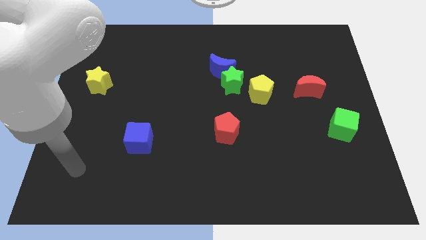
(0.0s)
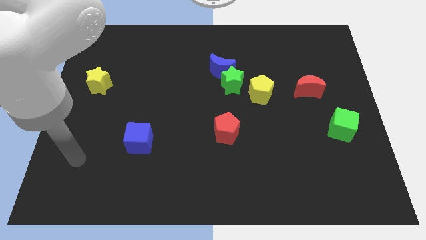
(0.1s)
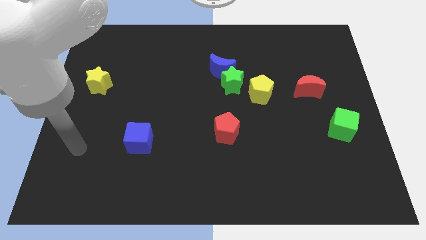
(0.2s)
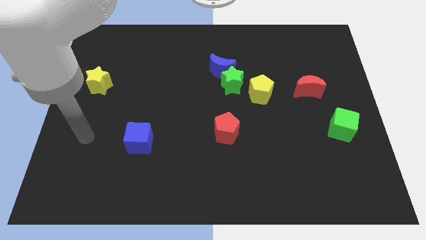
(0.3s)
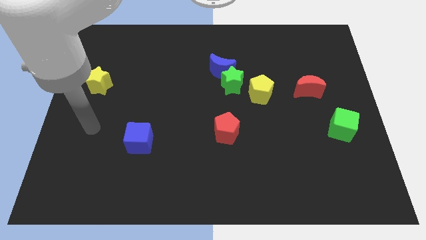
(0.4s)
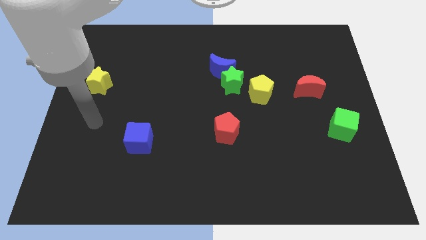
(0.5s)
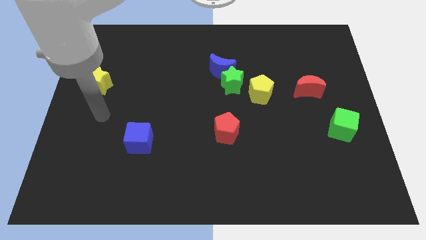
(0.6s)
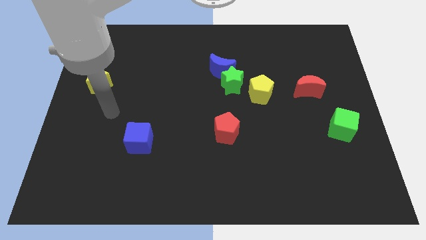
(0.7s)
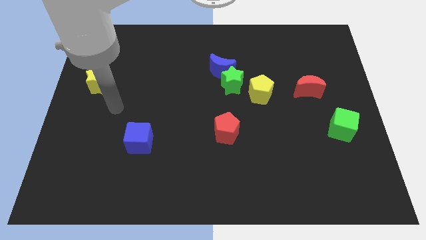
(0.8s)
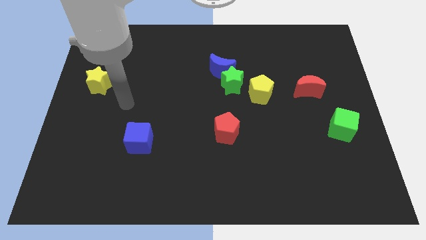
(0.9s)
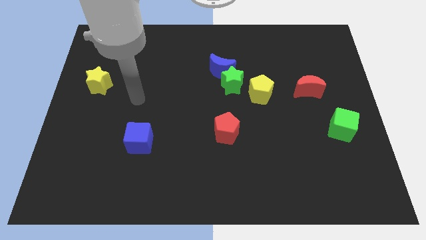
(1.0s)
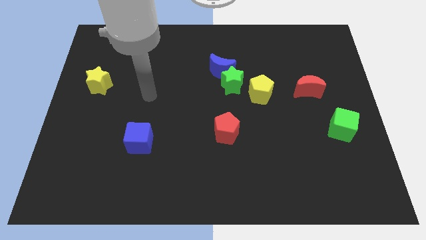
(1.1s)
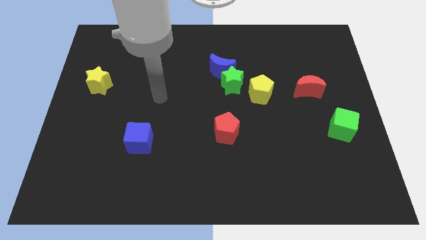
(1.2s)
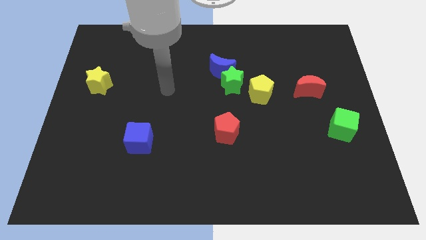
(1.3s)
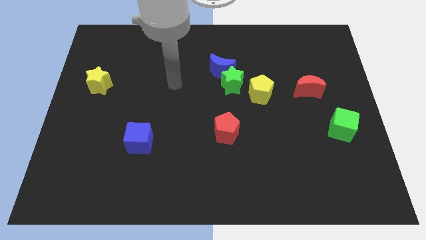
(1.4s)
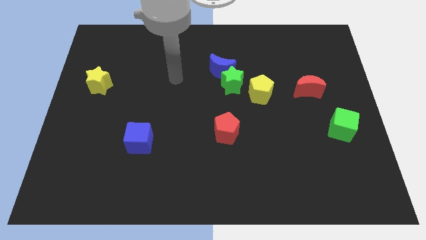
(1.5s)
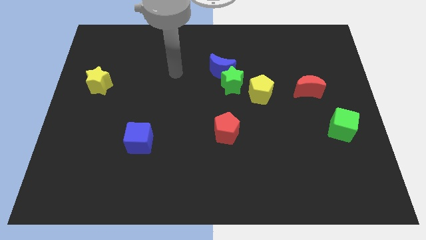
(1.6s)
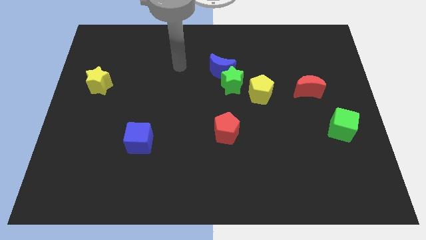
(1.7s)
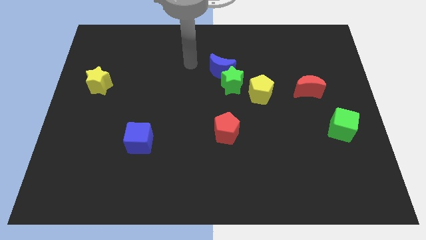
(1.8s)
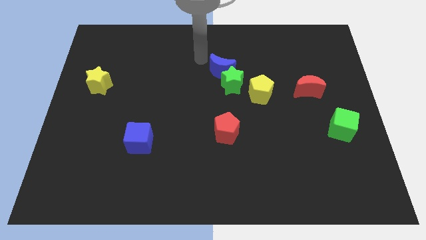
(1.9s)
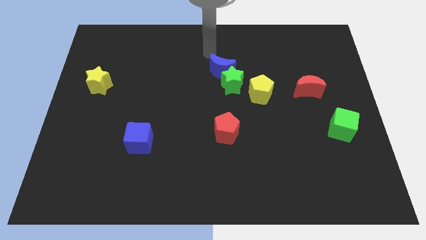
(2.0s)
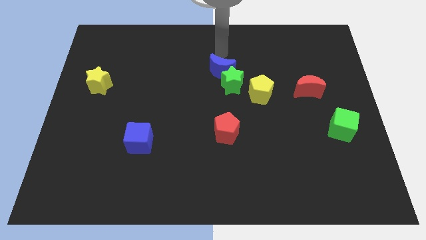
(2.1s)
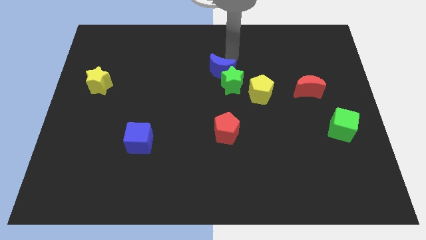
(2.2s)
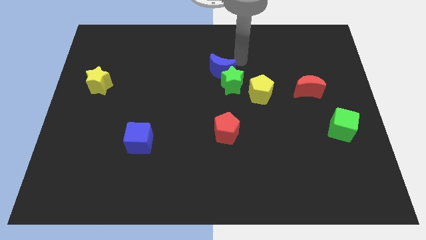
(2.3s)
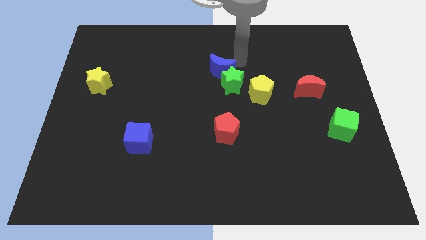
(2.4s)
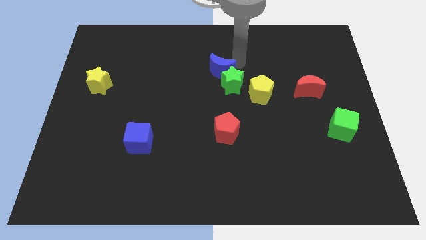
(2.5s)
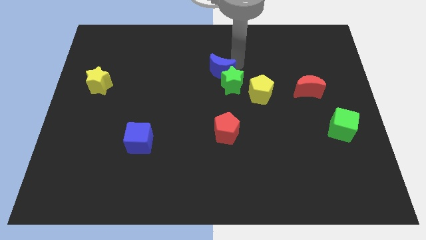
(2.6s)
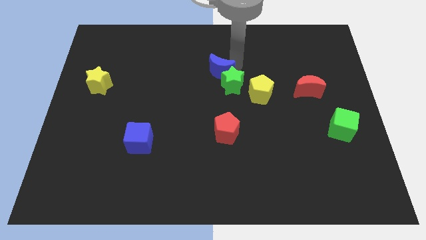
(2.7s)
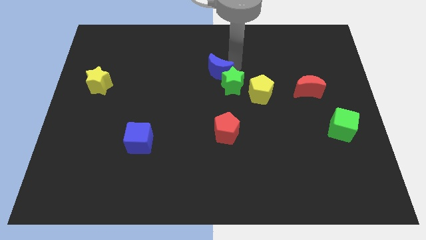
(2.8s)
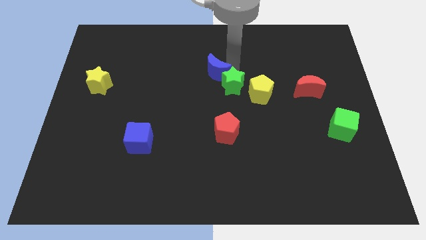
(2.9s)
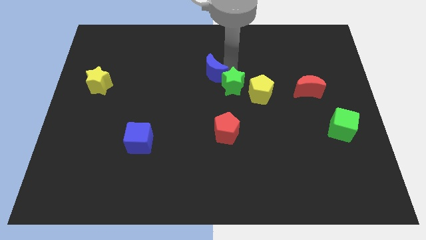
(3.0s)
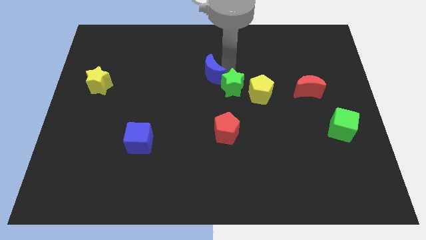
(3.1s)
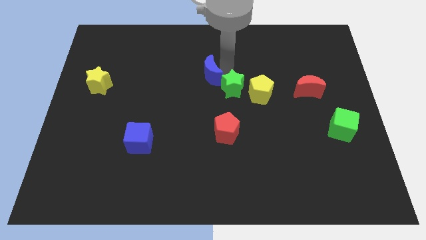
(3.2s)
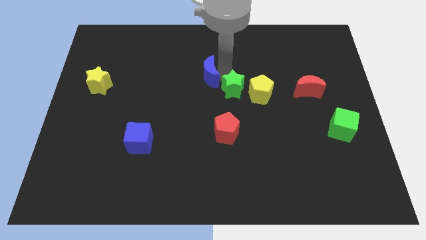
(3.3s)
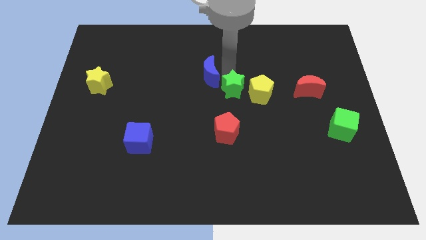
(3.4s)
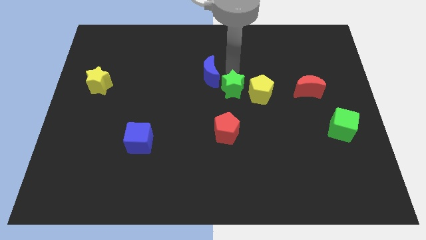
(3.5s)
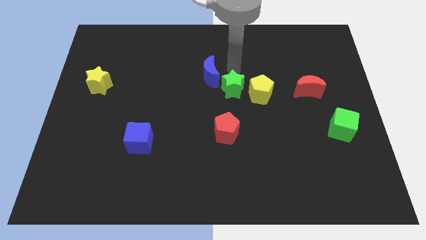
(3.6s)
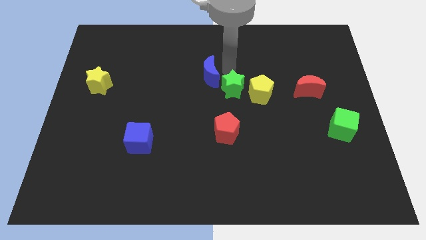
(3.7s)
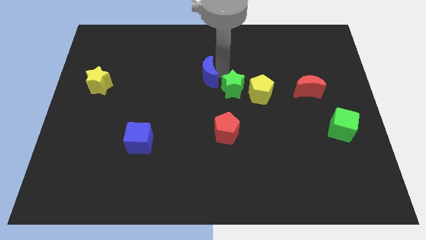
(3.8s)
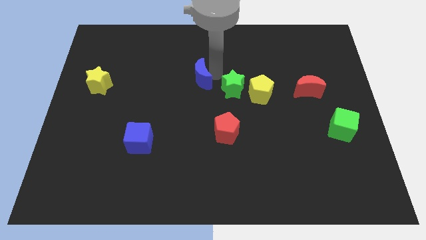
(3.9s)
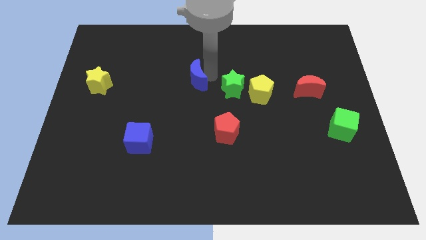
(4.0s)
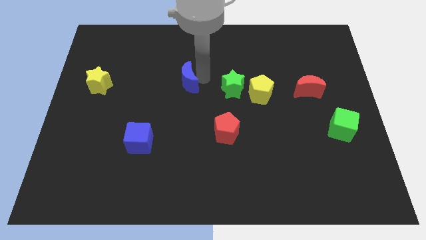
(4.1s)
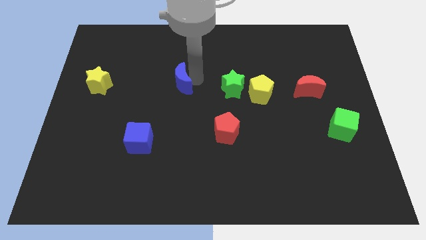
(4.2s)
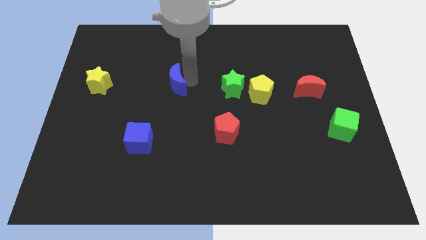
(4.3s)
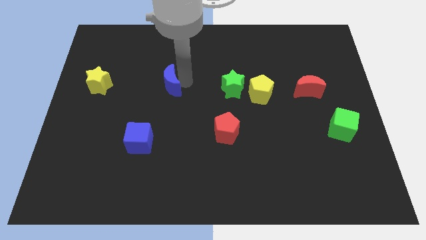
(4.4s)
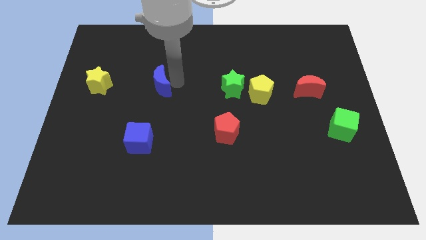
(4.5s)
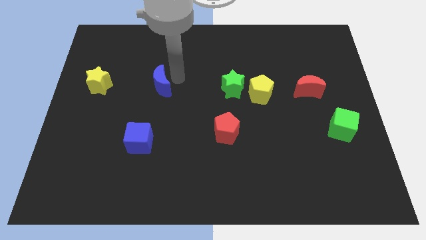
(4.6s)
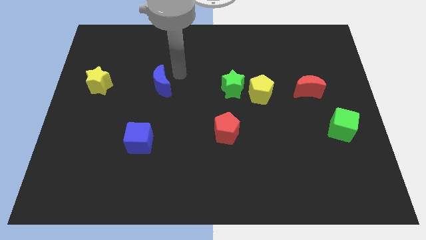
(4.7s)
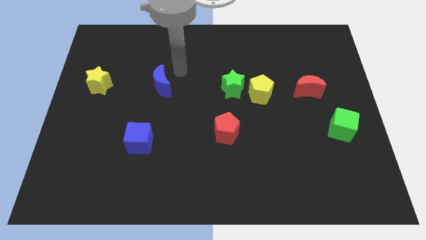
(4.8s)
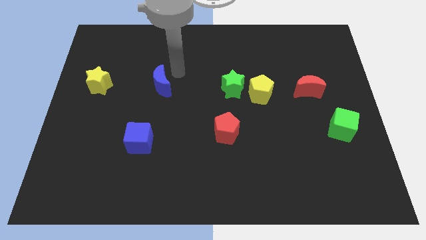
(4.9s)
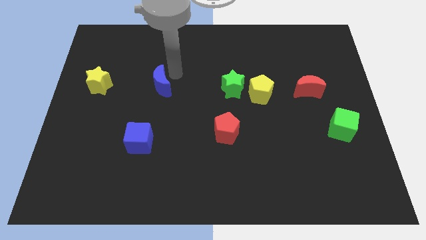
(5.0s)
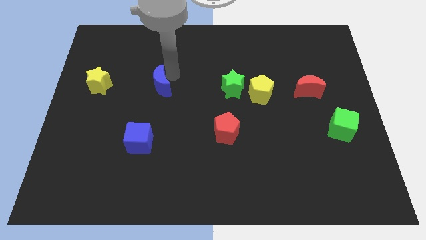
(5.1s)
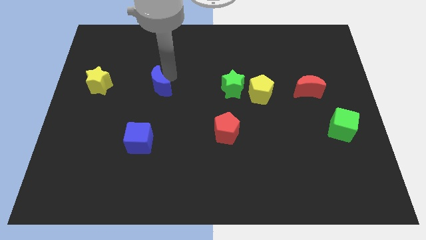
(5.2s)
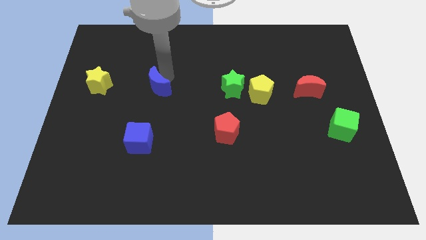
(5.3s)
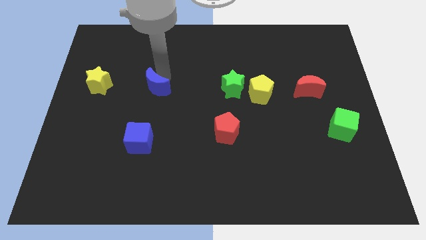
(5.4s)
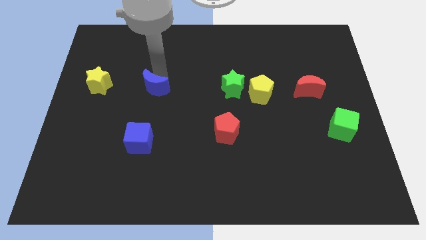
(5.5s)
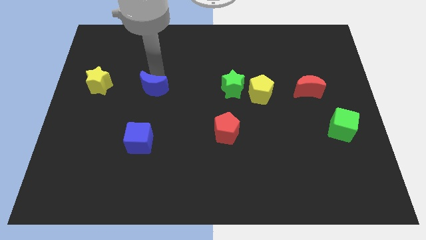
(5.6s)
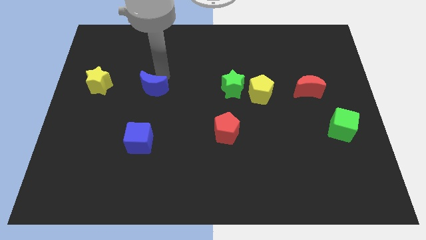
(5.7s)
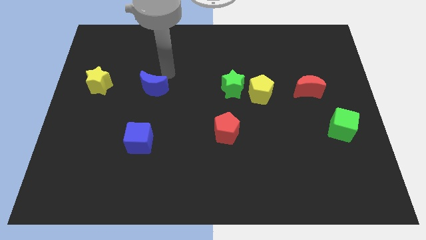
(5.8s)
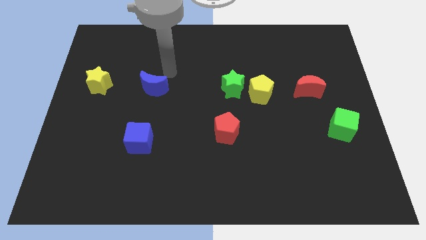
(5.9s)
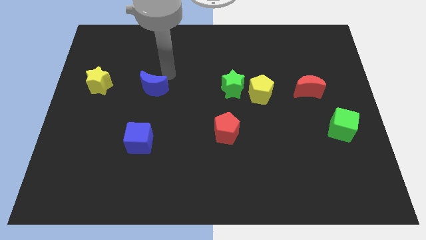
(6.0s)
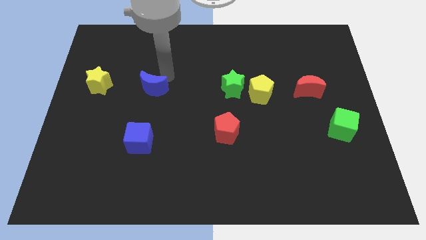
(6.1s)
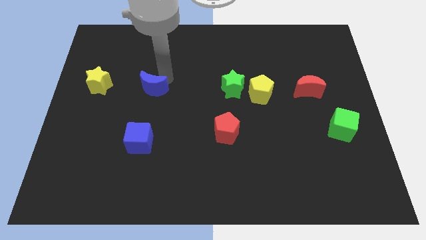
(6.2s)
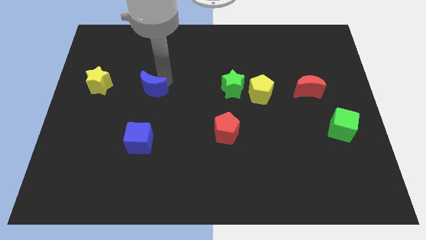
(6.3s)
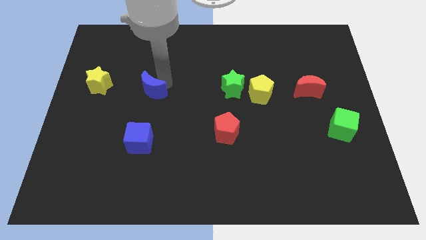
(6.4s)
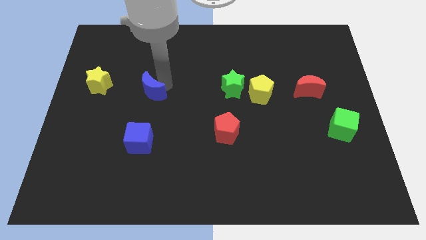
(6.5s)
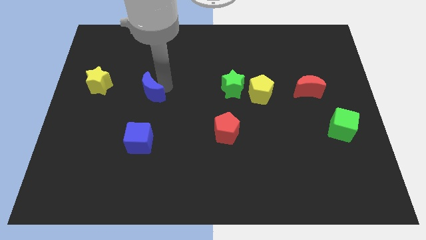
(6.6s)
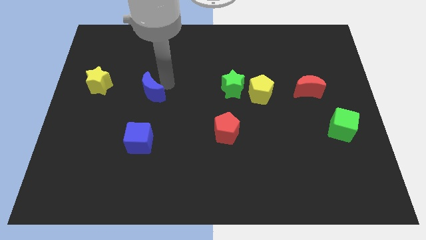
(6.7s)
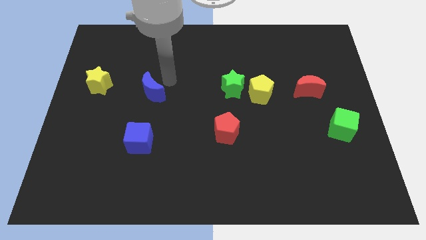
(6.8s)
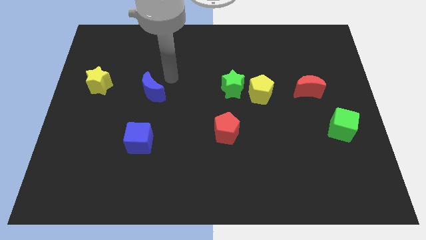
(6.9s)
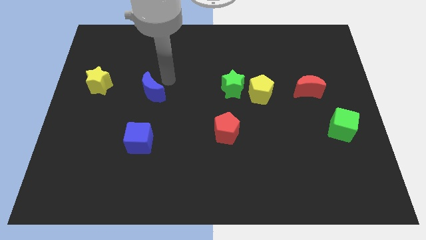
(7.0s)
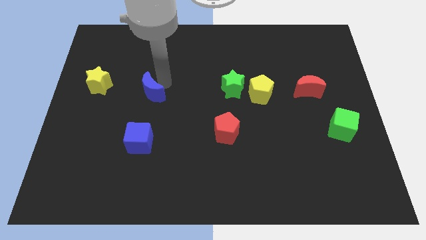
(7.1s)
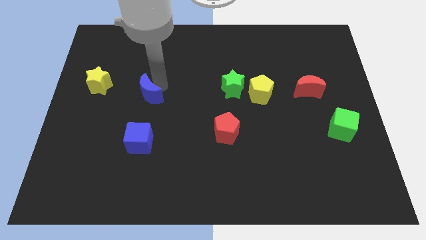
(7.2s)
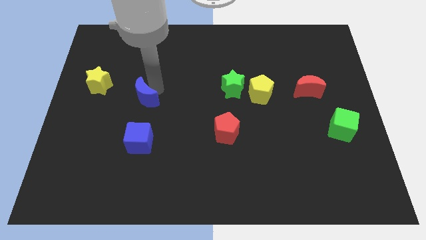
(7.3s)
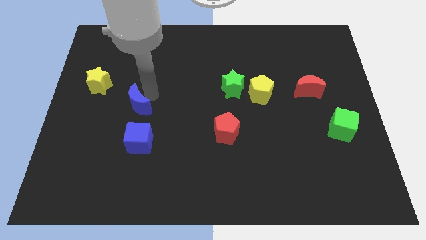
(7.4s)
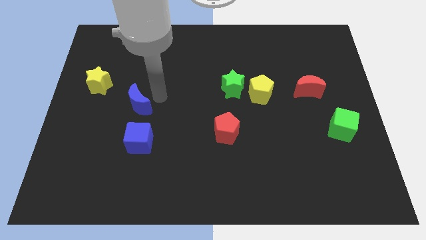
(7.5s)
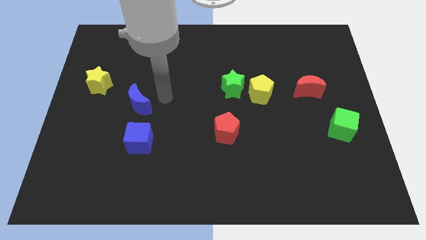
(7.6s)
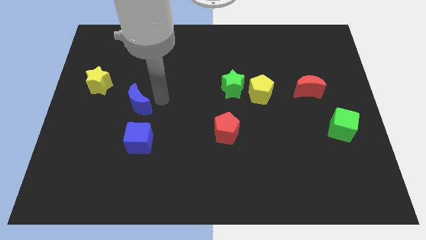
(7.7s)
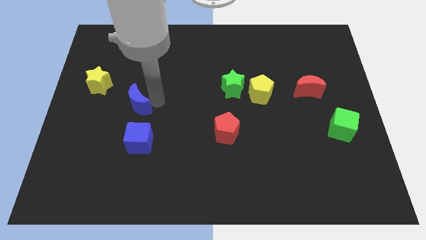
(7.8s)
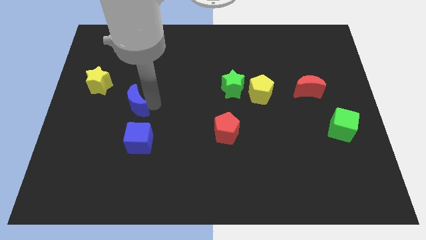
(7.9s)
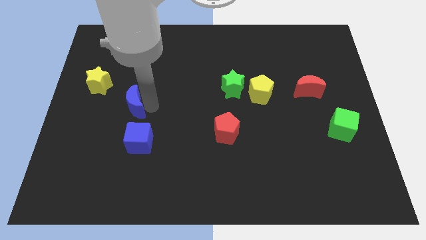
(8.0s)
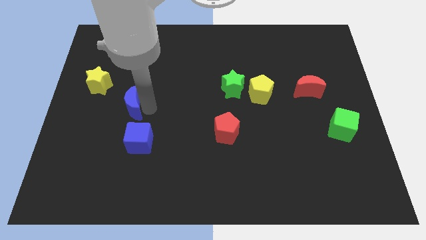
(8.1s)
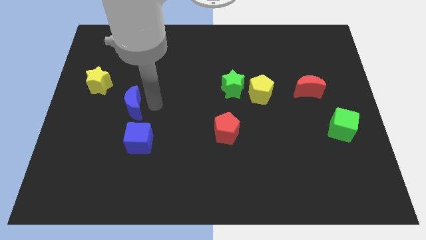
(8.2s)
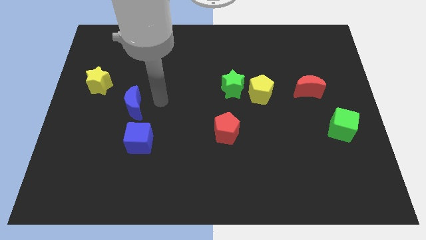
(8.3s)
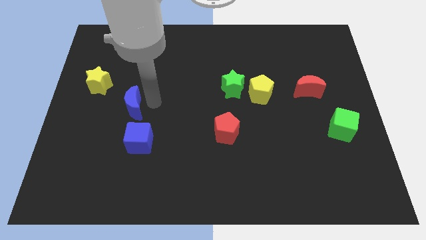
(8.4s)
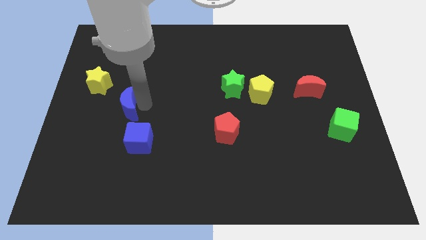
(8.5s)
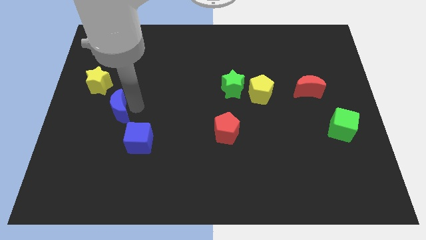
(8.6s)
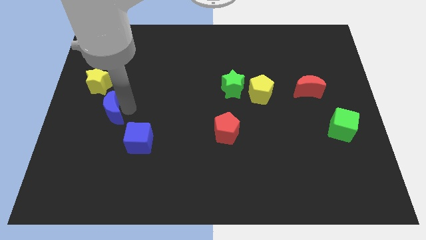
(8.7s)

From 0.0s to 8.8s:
slide the blue moon below the yellow star
